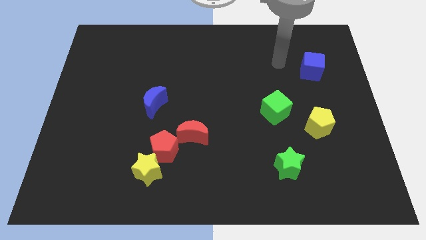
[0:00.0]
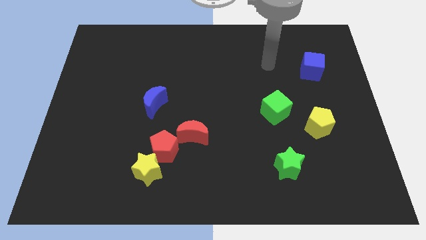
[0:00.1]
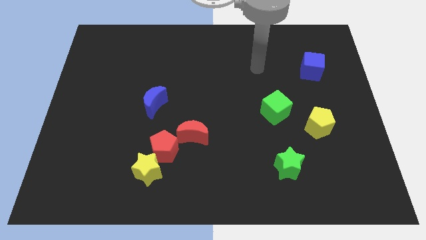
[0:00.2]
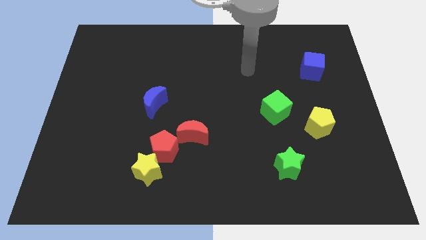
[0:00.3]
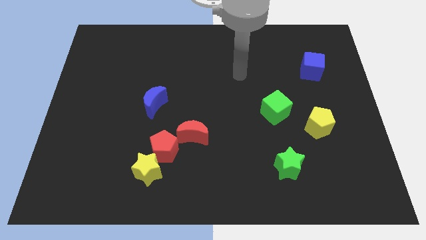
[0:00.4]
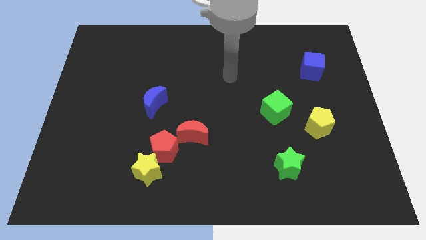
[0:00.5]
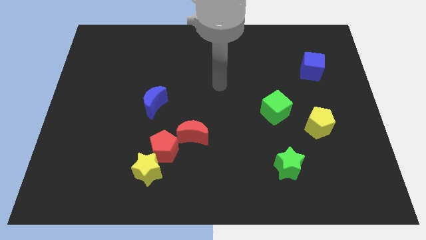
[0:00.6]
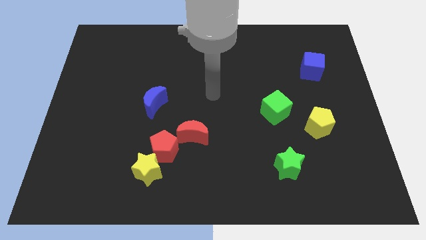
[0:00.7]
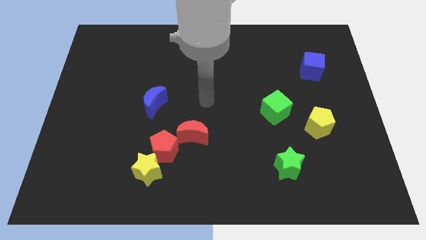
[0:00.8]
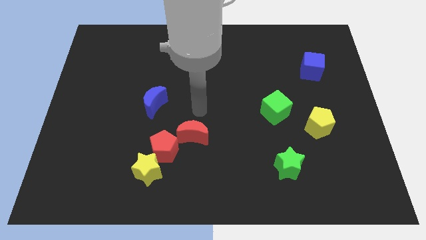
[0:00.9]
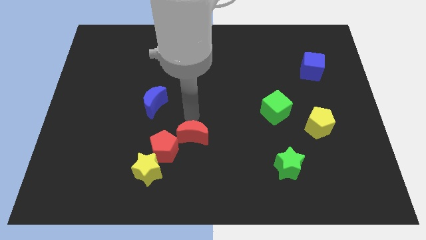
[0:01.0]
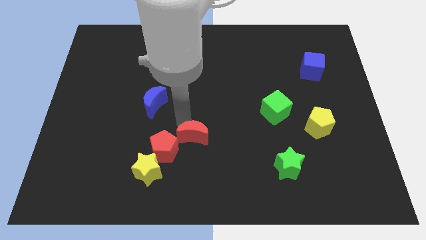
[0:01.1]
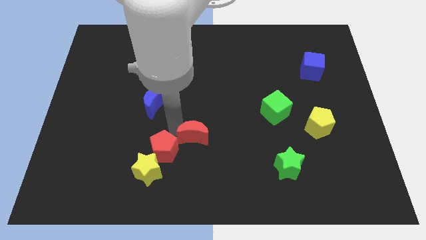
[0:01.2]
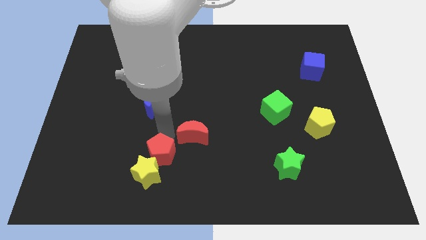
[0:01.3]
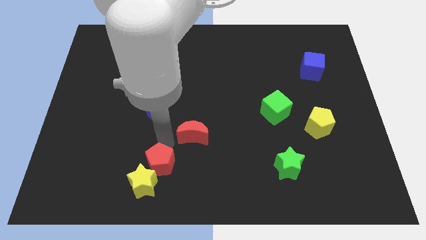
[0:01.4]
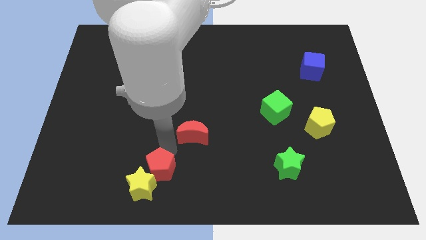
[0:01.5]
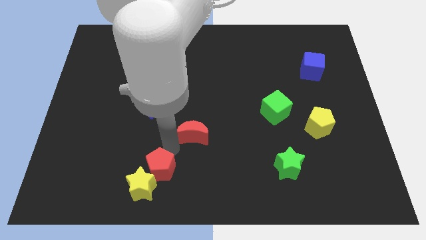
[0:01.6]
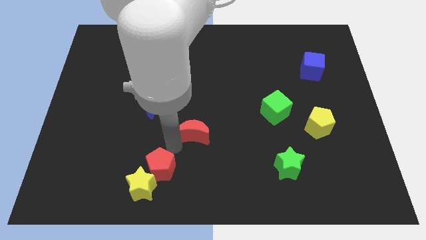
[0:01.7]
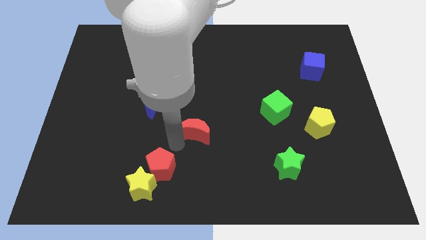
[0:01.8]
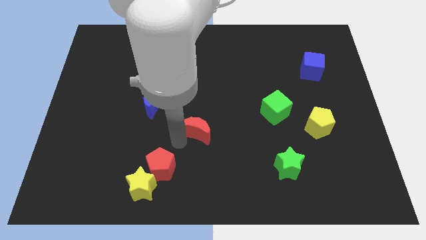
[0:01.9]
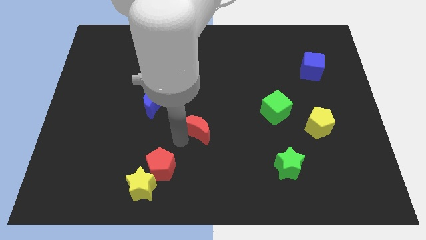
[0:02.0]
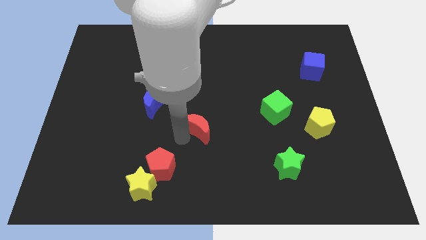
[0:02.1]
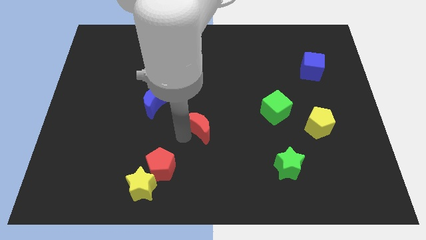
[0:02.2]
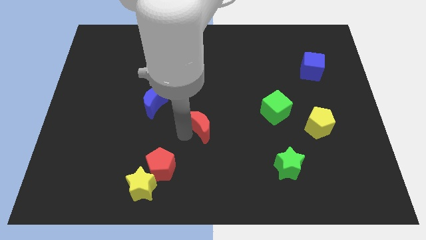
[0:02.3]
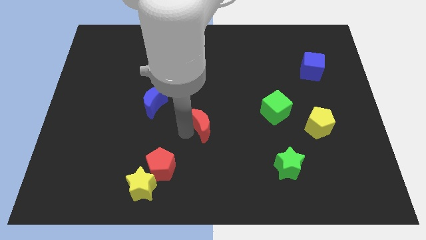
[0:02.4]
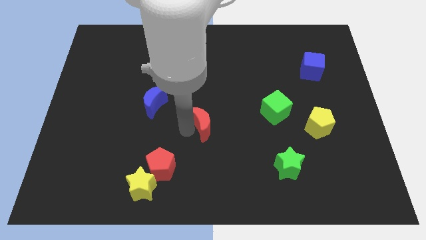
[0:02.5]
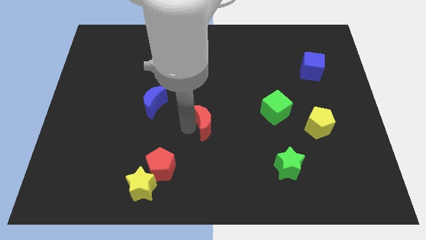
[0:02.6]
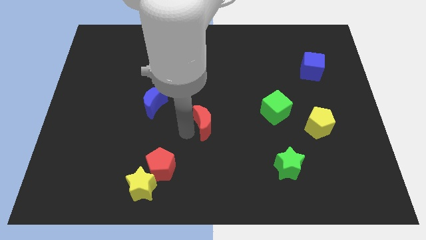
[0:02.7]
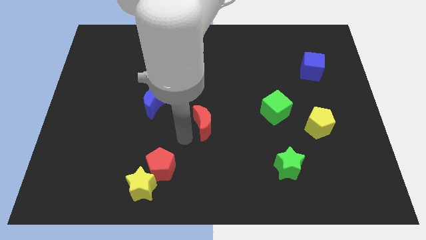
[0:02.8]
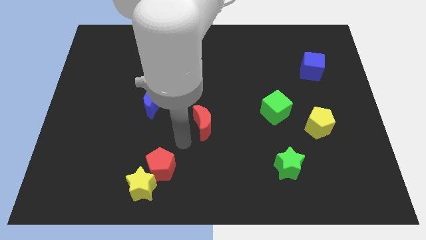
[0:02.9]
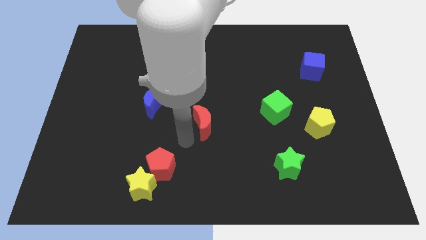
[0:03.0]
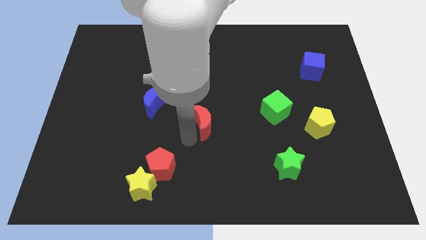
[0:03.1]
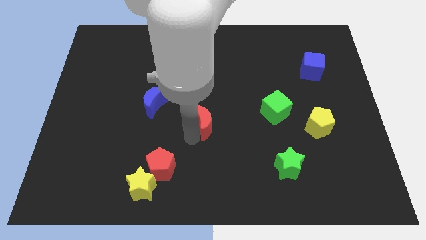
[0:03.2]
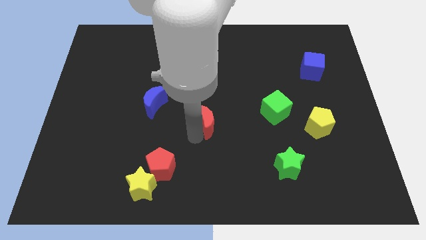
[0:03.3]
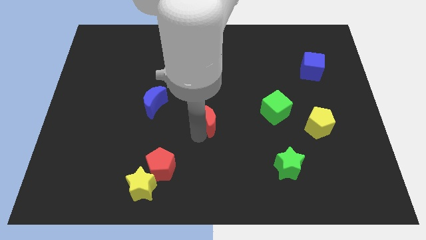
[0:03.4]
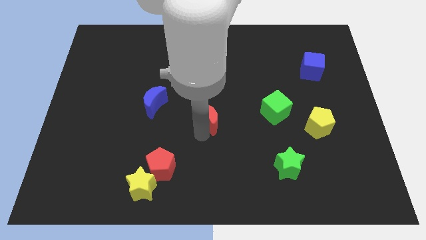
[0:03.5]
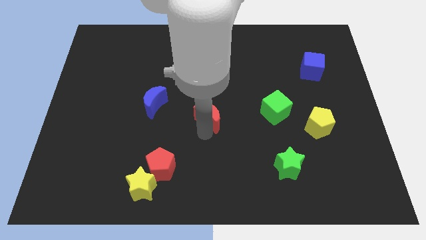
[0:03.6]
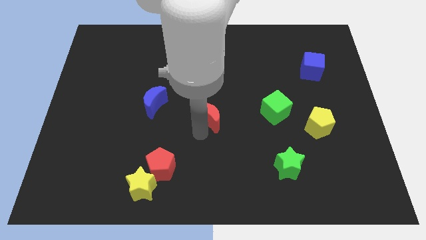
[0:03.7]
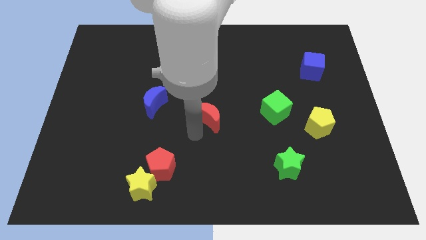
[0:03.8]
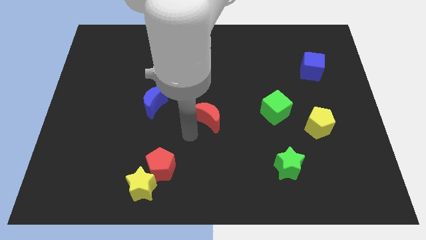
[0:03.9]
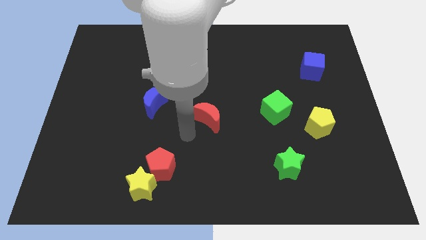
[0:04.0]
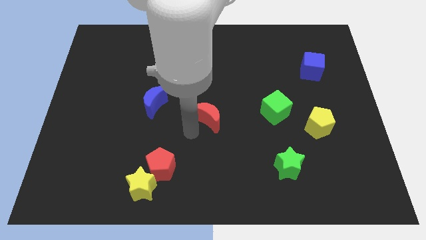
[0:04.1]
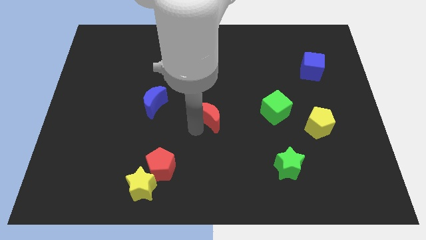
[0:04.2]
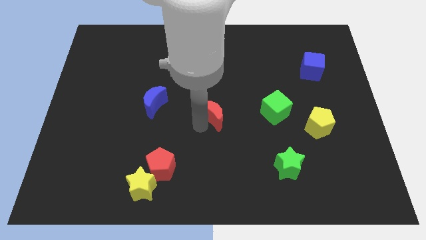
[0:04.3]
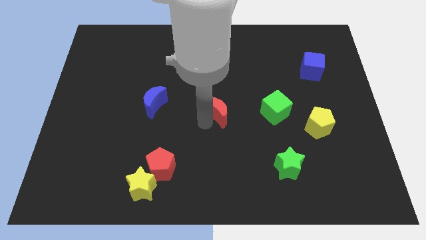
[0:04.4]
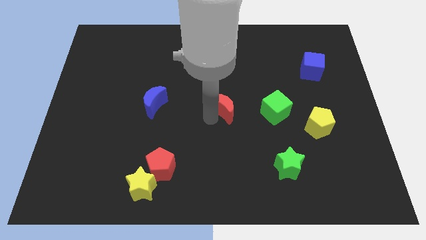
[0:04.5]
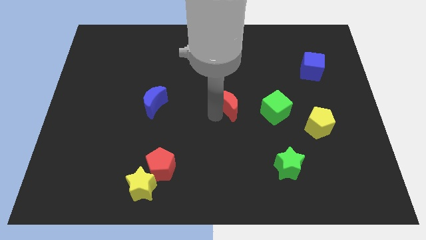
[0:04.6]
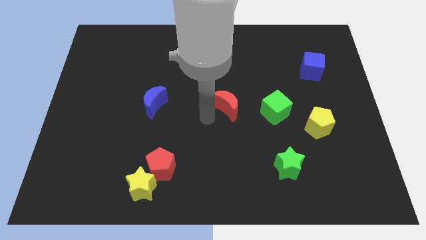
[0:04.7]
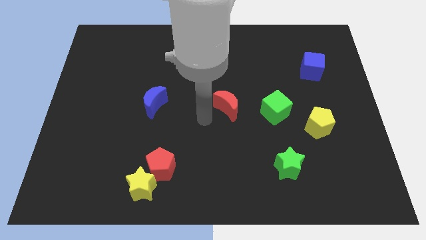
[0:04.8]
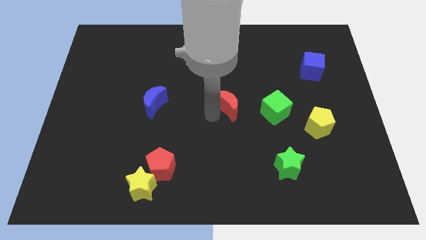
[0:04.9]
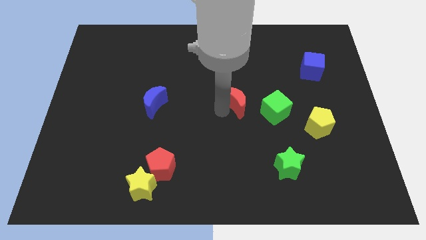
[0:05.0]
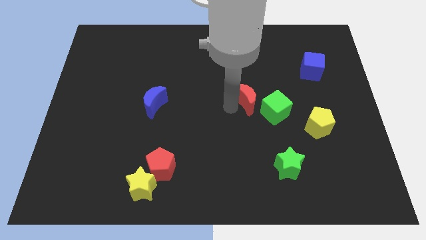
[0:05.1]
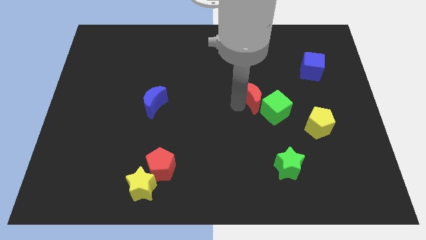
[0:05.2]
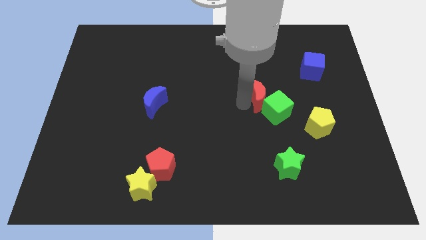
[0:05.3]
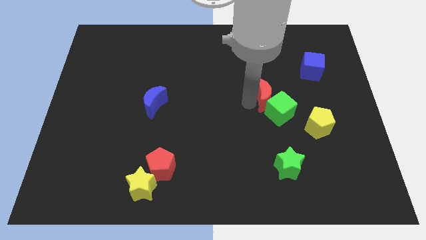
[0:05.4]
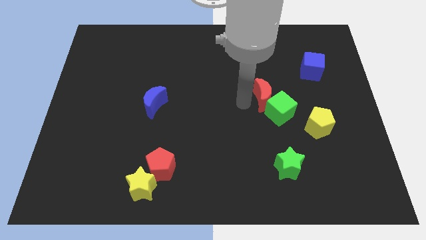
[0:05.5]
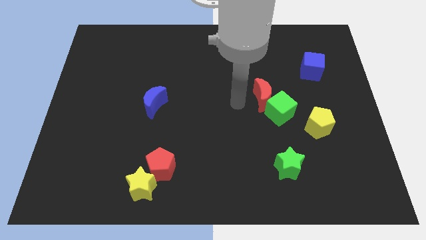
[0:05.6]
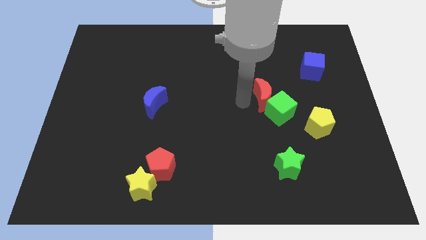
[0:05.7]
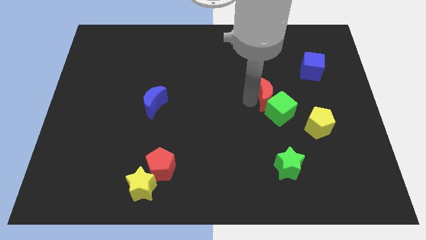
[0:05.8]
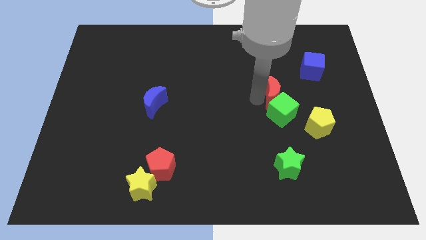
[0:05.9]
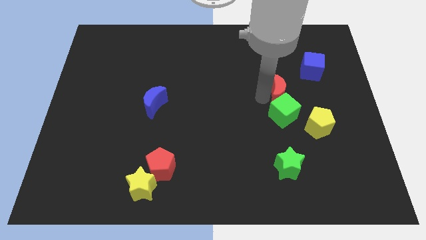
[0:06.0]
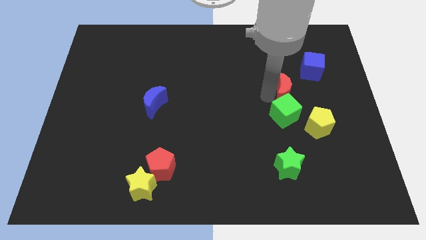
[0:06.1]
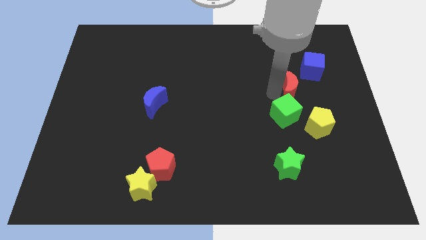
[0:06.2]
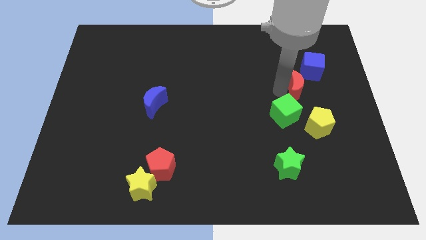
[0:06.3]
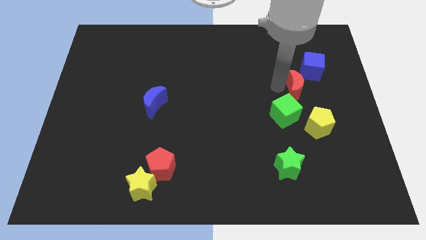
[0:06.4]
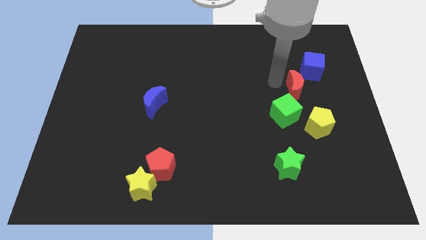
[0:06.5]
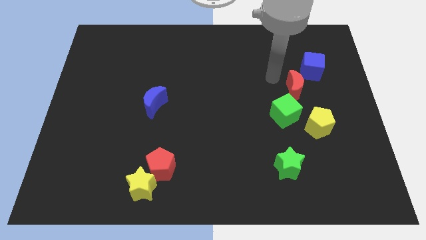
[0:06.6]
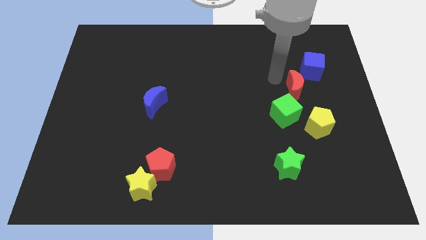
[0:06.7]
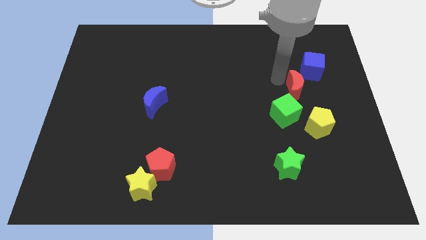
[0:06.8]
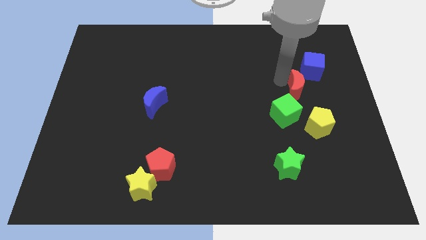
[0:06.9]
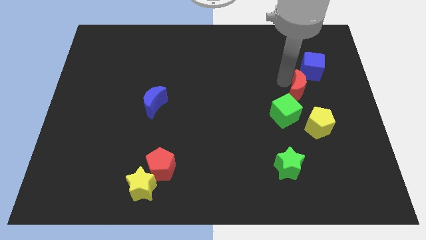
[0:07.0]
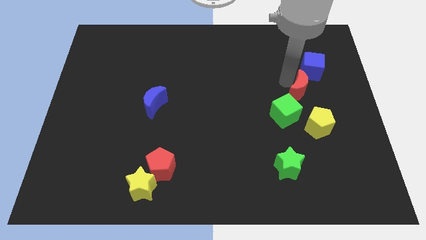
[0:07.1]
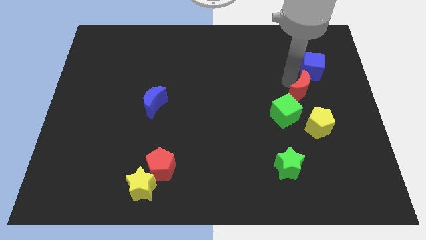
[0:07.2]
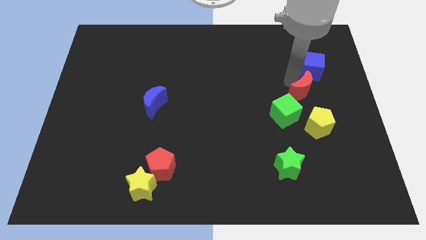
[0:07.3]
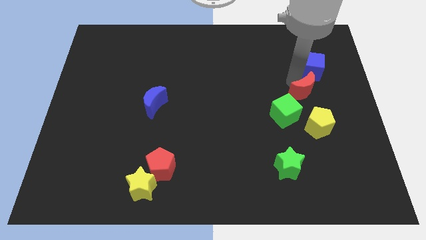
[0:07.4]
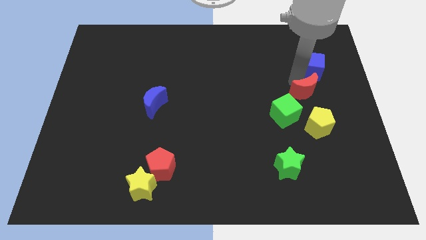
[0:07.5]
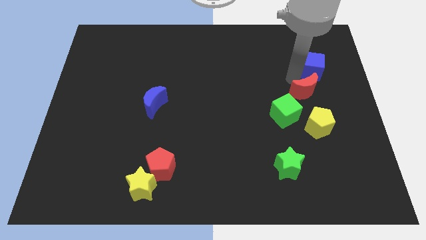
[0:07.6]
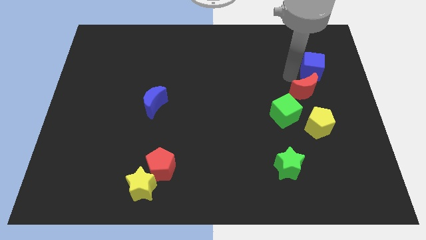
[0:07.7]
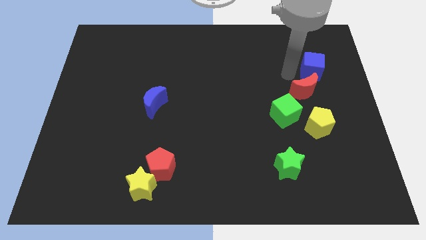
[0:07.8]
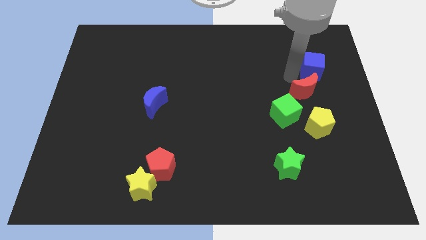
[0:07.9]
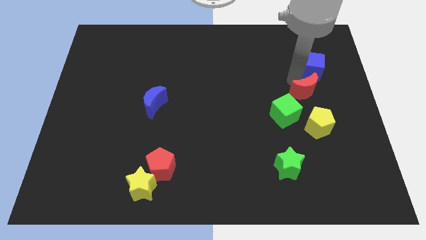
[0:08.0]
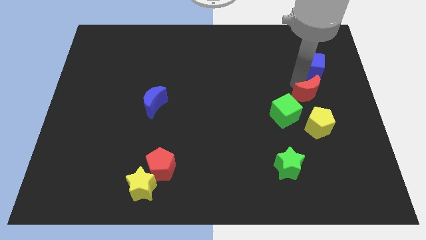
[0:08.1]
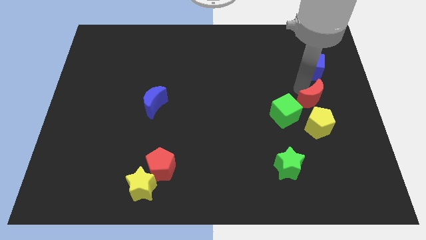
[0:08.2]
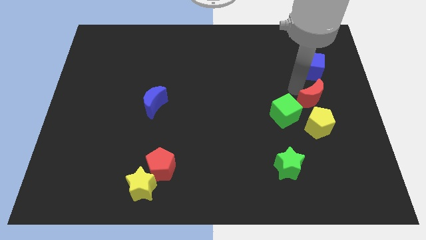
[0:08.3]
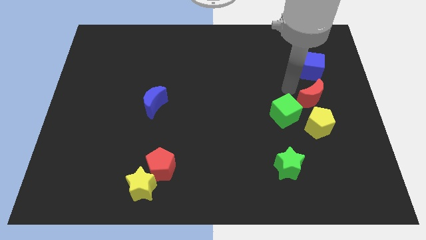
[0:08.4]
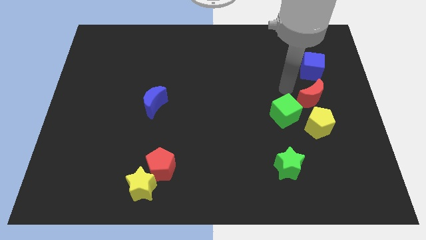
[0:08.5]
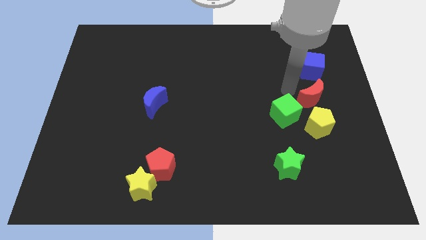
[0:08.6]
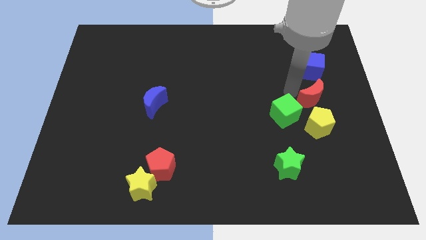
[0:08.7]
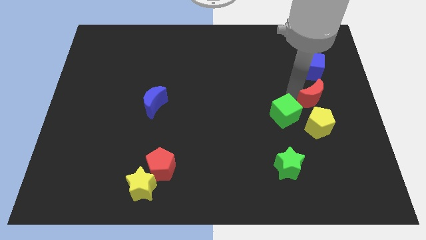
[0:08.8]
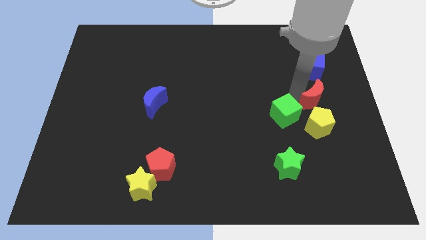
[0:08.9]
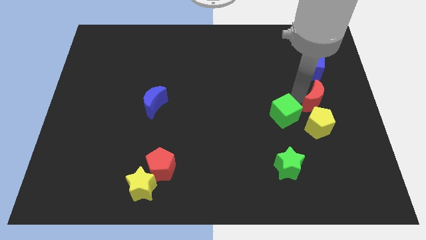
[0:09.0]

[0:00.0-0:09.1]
move the red moon to the top right side of the yellow pentagon
